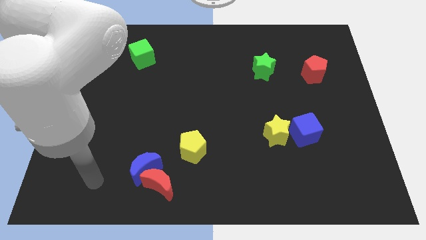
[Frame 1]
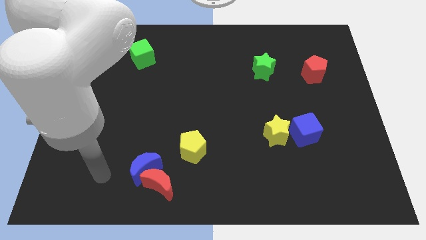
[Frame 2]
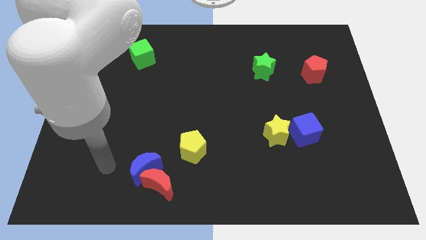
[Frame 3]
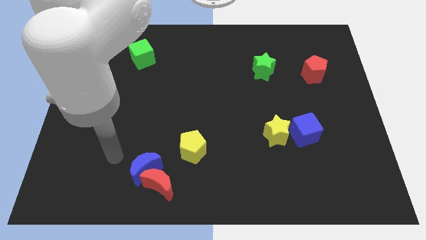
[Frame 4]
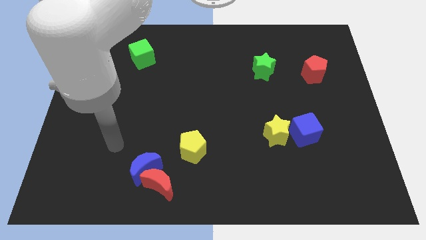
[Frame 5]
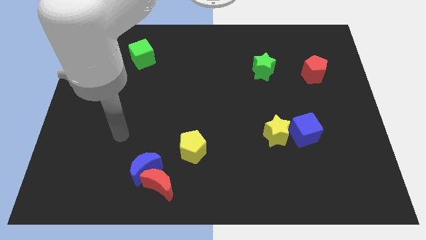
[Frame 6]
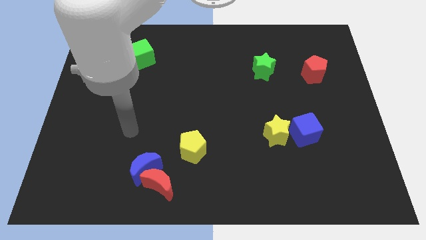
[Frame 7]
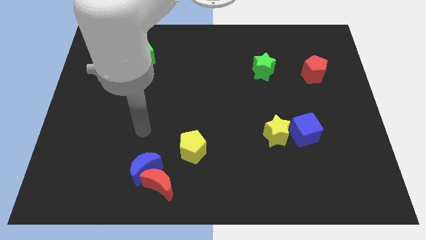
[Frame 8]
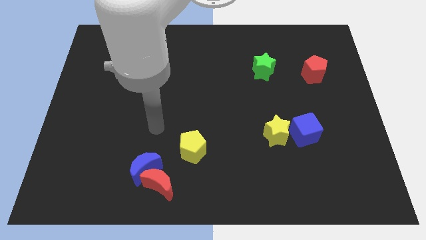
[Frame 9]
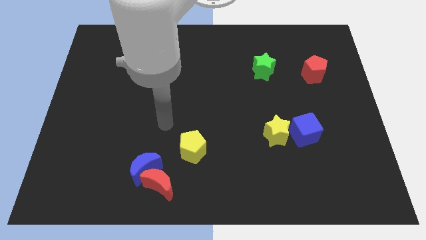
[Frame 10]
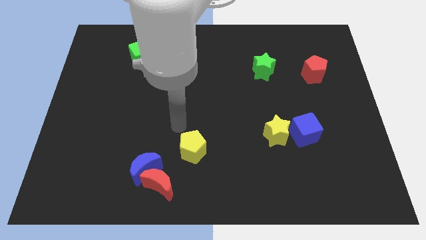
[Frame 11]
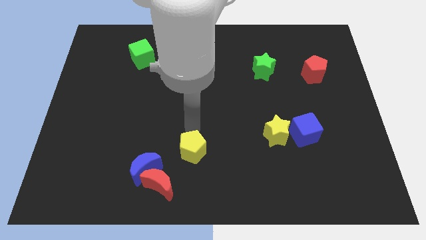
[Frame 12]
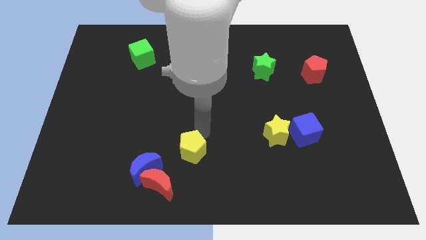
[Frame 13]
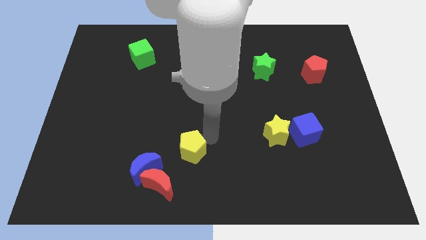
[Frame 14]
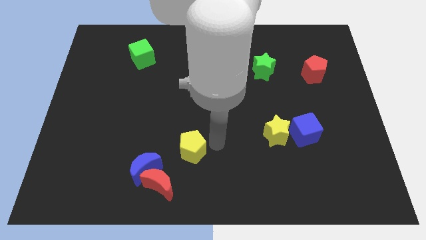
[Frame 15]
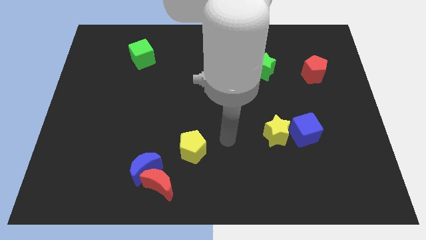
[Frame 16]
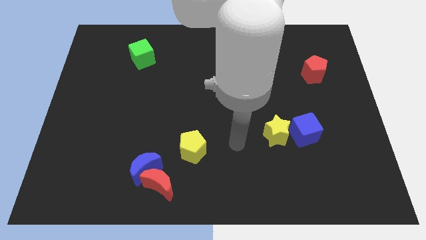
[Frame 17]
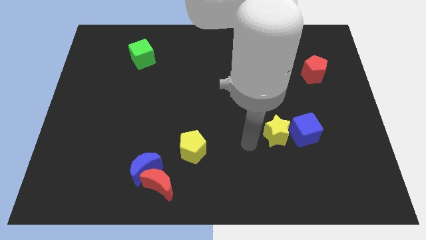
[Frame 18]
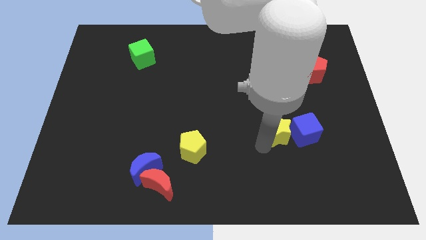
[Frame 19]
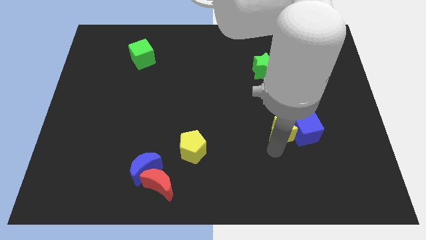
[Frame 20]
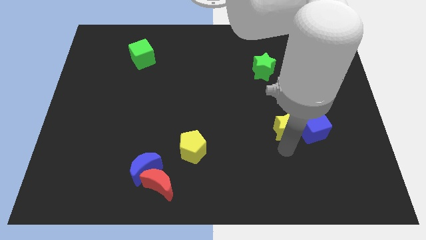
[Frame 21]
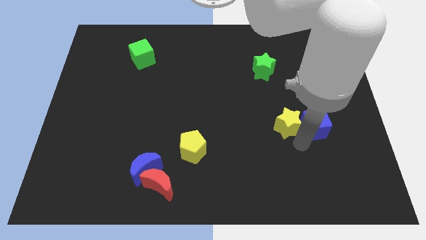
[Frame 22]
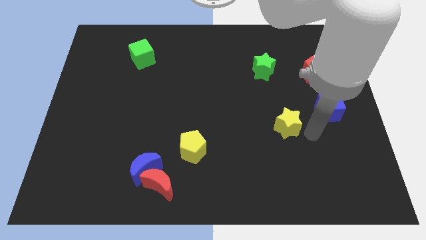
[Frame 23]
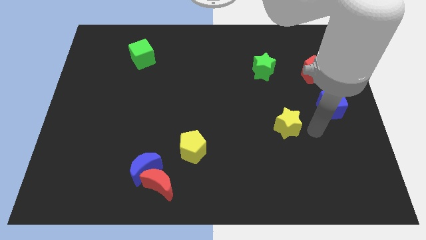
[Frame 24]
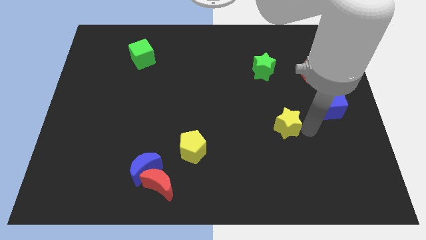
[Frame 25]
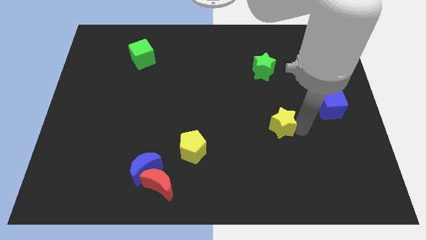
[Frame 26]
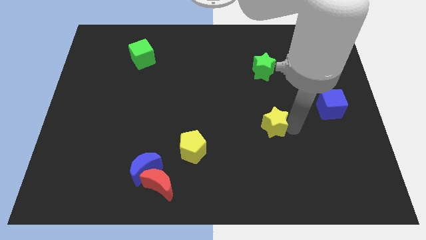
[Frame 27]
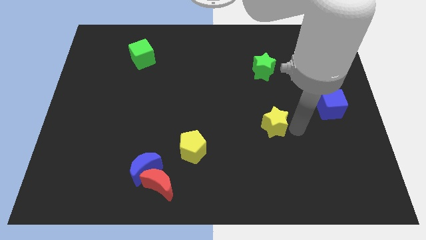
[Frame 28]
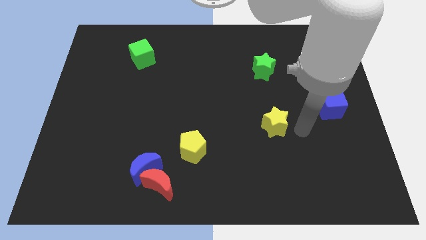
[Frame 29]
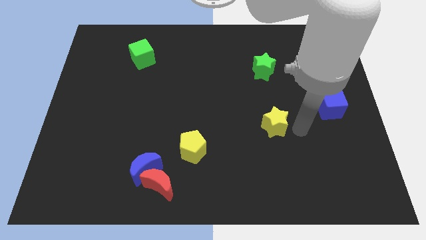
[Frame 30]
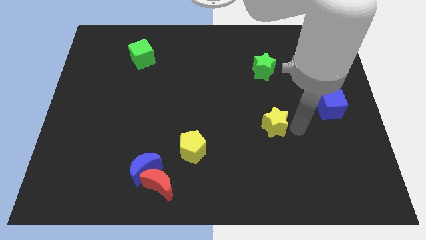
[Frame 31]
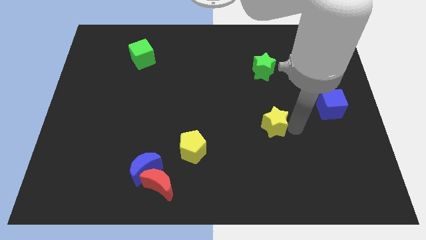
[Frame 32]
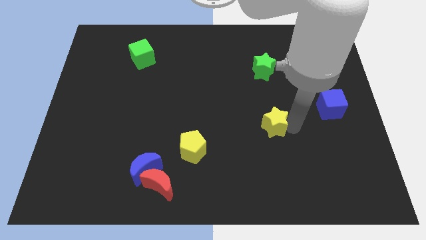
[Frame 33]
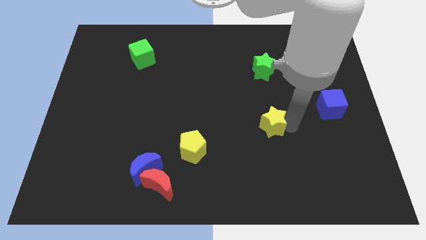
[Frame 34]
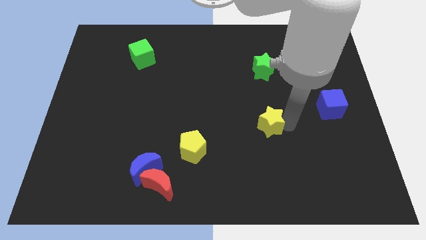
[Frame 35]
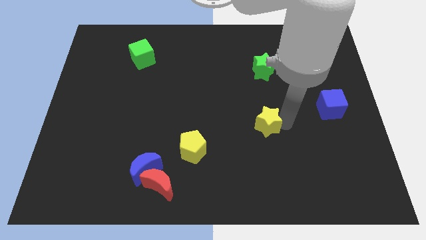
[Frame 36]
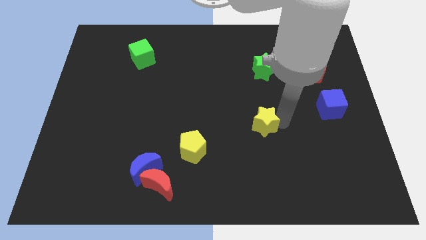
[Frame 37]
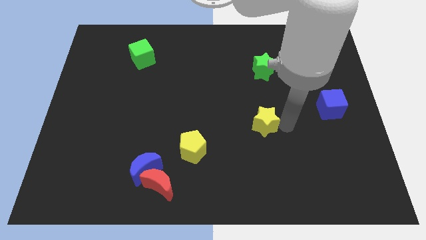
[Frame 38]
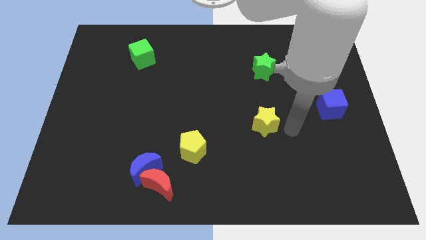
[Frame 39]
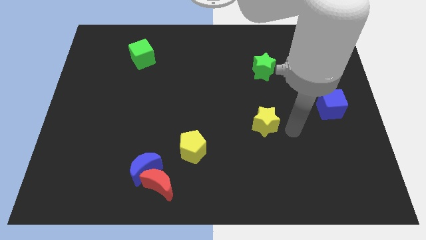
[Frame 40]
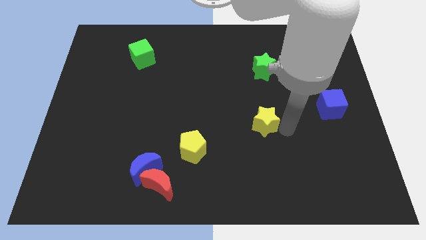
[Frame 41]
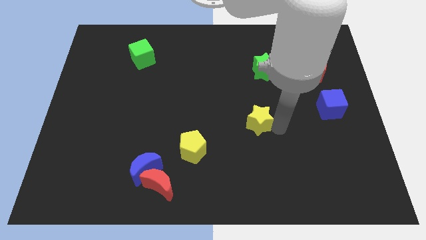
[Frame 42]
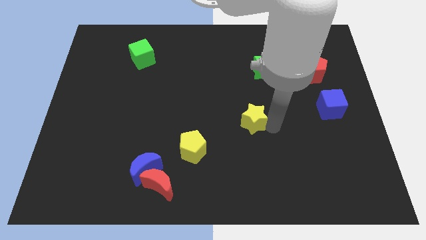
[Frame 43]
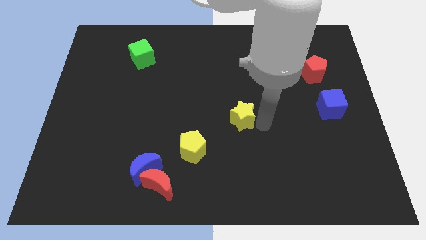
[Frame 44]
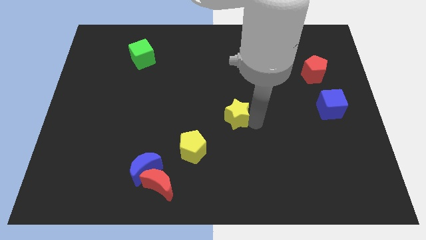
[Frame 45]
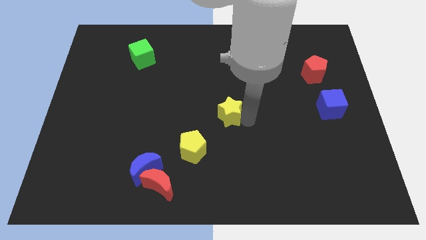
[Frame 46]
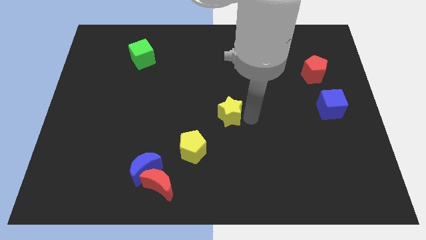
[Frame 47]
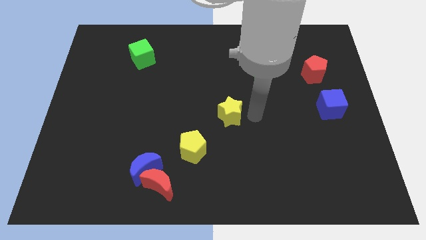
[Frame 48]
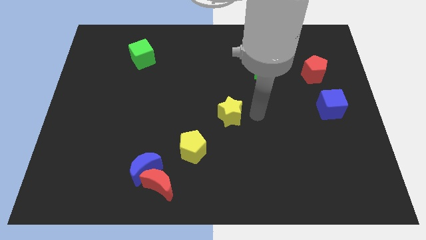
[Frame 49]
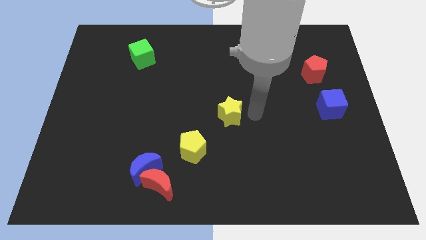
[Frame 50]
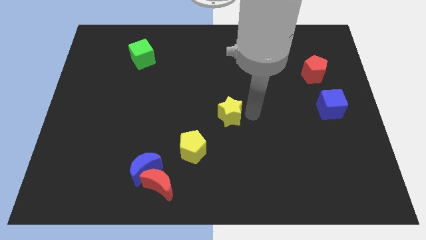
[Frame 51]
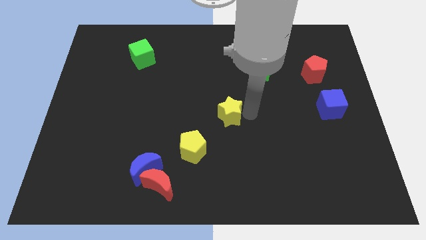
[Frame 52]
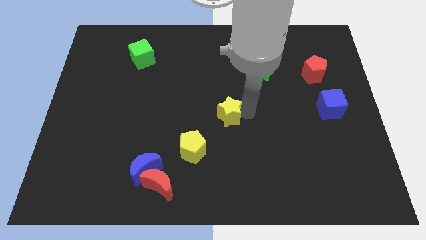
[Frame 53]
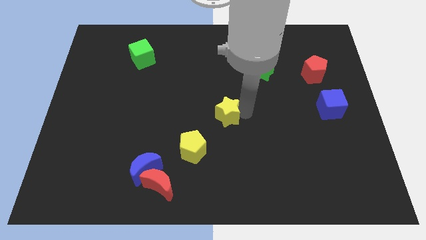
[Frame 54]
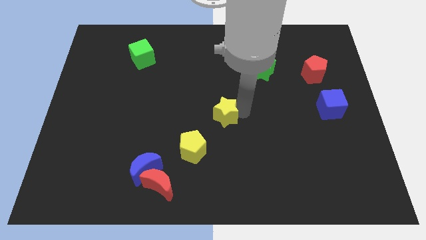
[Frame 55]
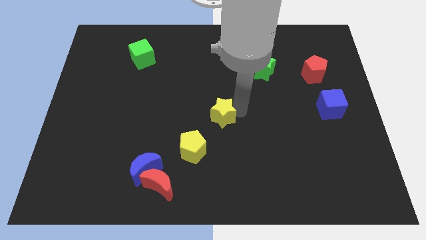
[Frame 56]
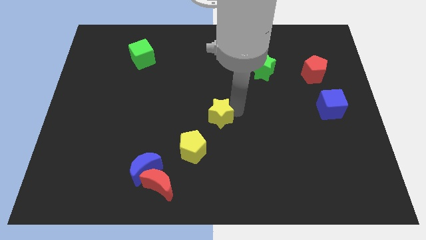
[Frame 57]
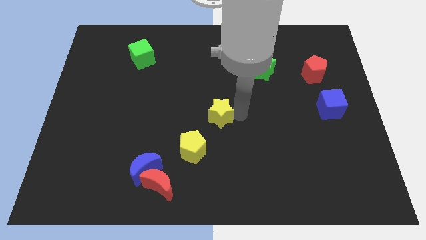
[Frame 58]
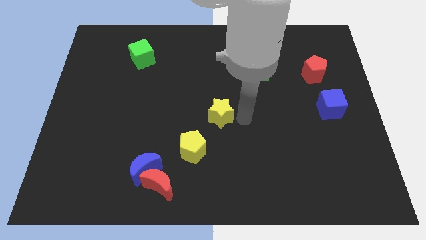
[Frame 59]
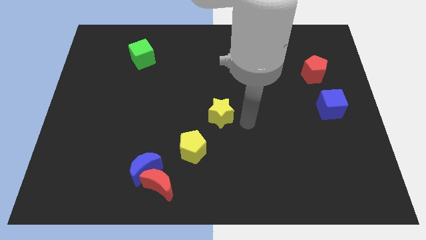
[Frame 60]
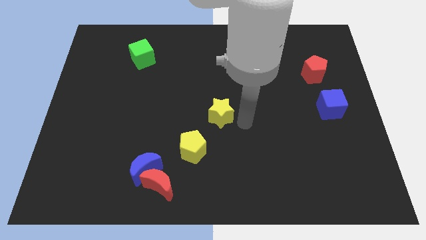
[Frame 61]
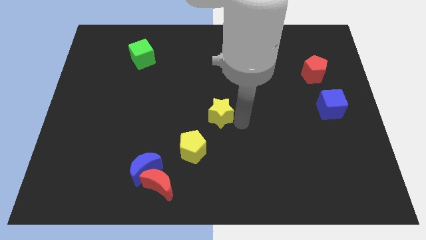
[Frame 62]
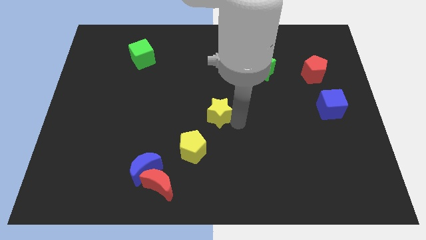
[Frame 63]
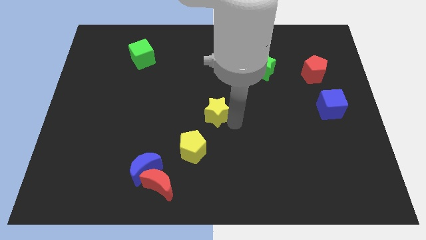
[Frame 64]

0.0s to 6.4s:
move the yellow star to the top of the yellow pentagon
